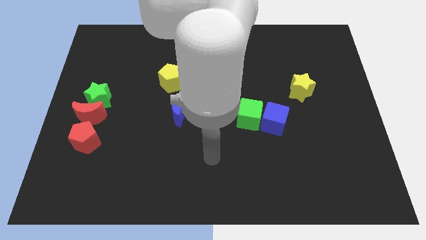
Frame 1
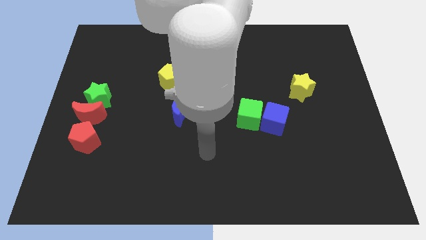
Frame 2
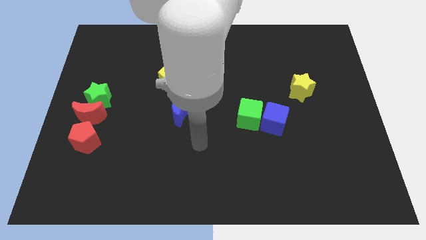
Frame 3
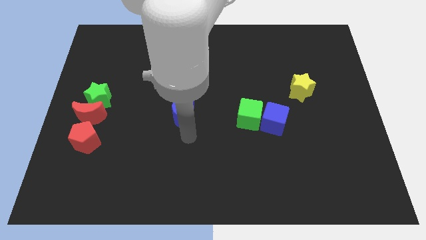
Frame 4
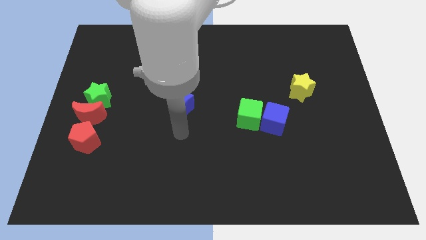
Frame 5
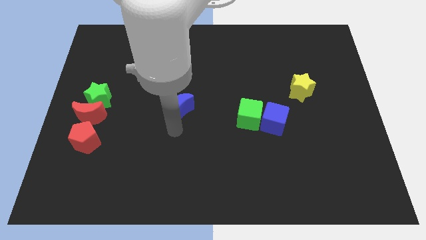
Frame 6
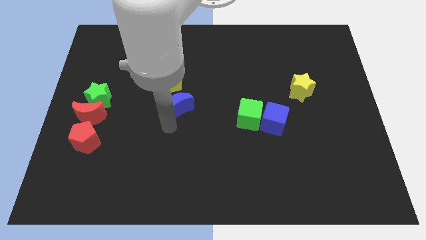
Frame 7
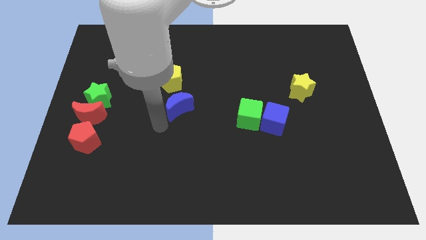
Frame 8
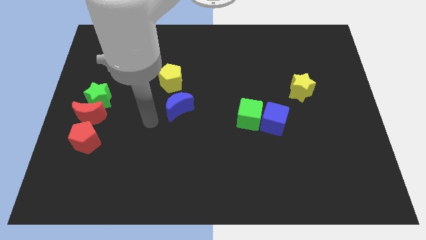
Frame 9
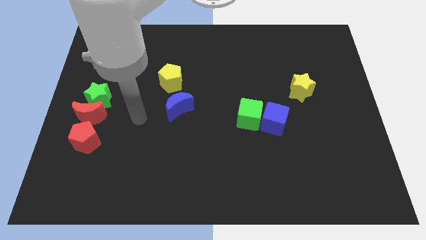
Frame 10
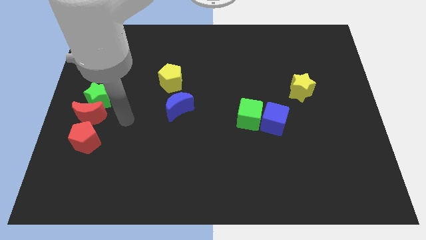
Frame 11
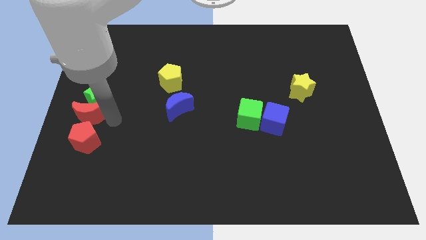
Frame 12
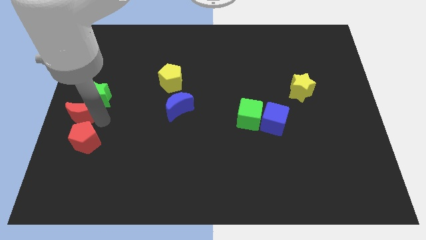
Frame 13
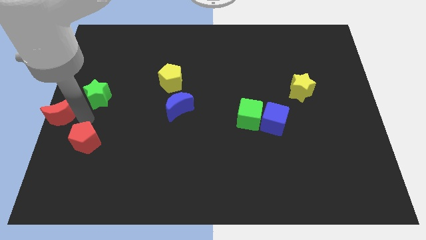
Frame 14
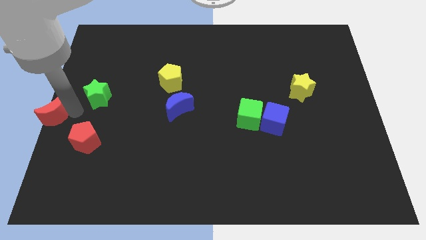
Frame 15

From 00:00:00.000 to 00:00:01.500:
move the green star away from the red moon

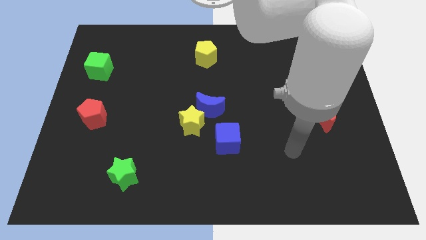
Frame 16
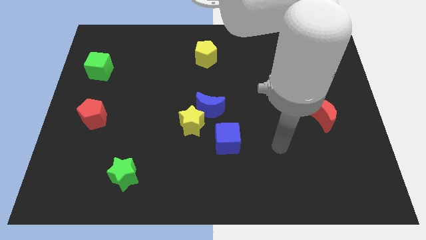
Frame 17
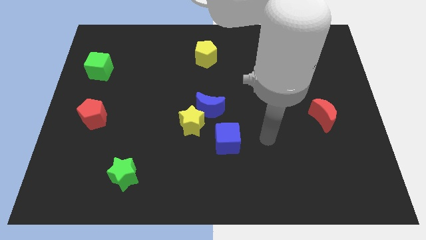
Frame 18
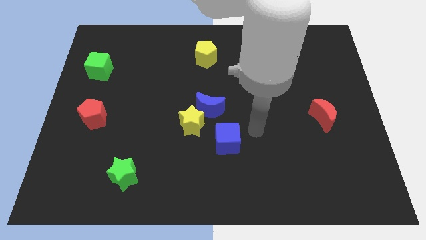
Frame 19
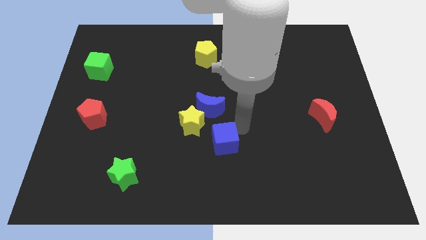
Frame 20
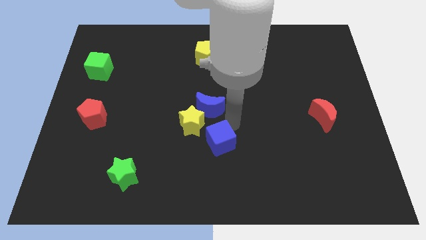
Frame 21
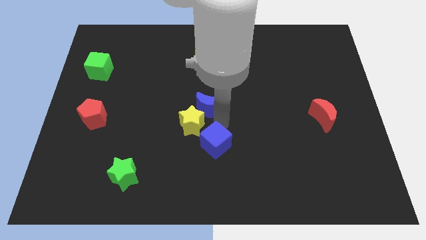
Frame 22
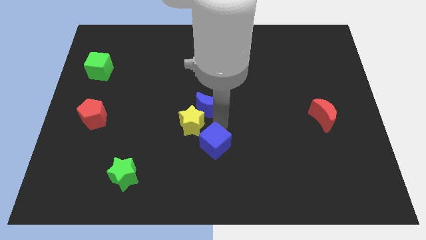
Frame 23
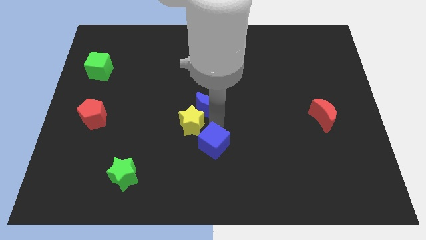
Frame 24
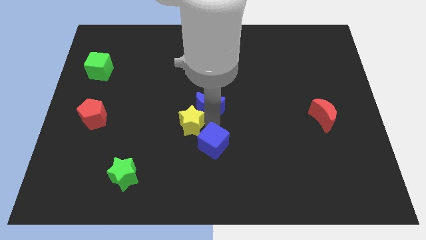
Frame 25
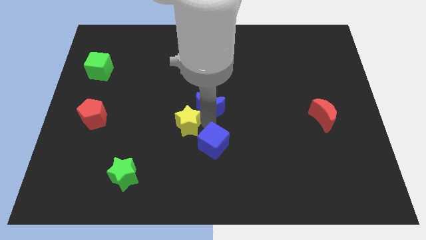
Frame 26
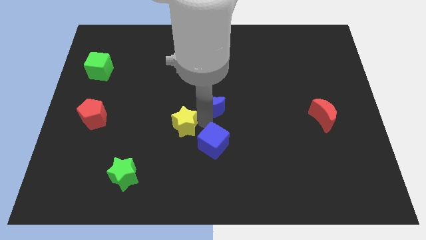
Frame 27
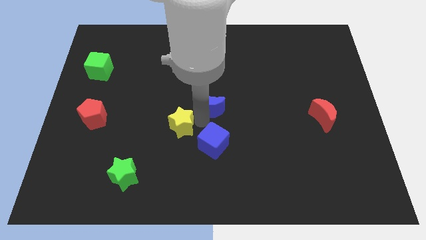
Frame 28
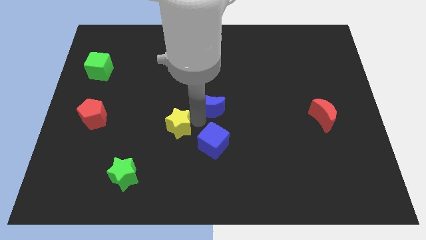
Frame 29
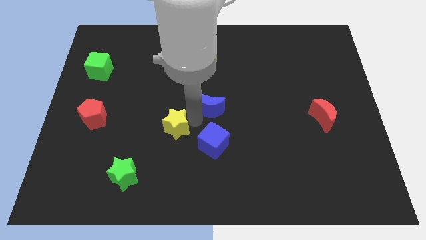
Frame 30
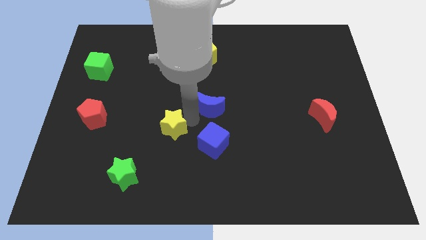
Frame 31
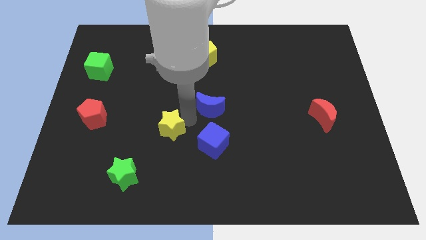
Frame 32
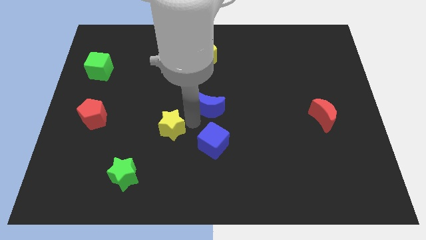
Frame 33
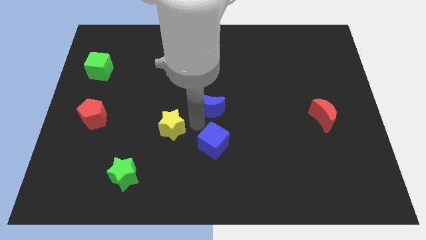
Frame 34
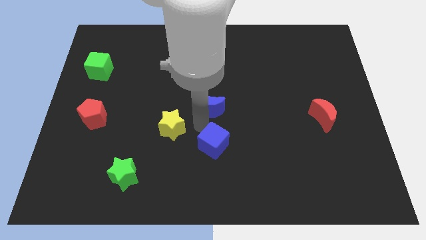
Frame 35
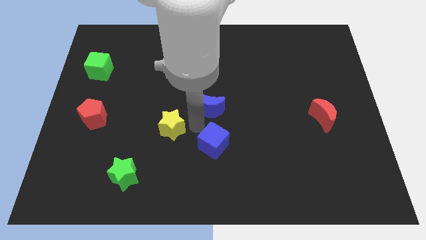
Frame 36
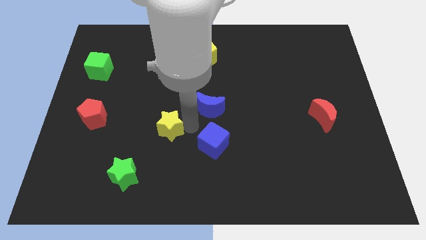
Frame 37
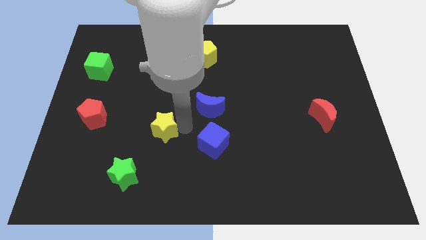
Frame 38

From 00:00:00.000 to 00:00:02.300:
separate the yellow star from the blue moon and blue cube

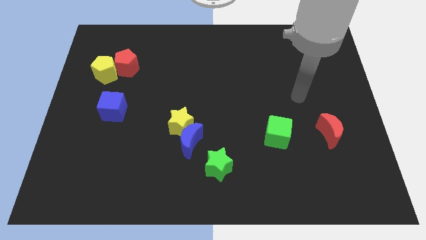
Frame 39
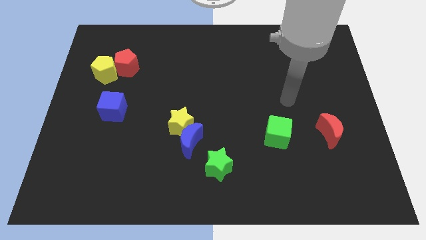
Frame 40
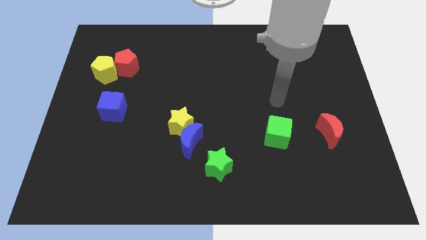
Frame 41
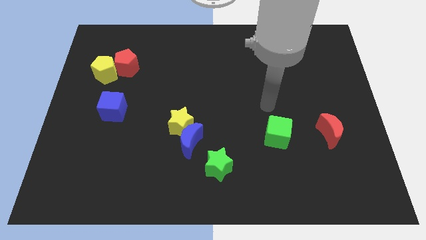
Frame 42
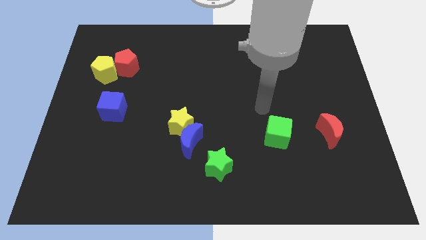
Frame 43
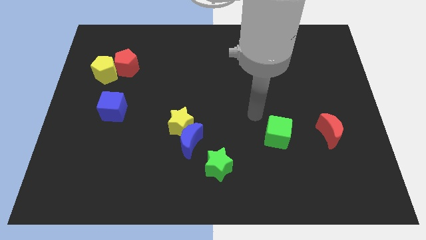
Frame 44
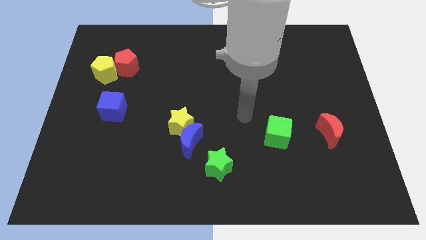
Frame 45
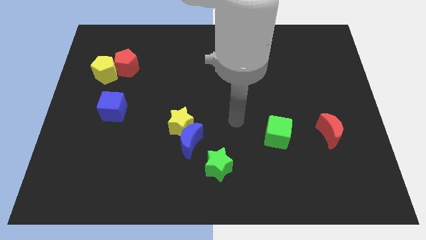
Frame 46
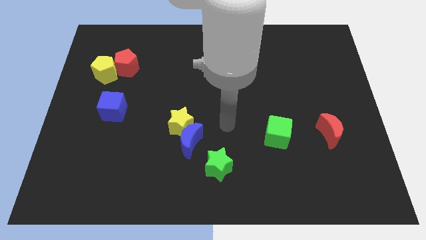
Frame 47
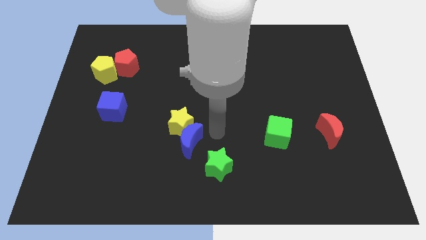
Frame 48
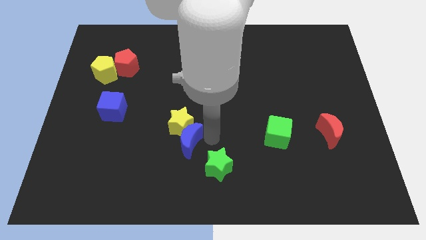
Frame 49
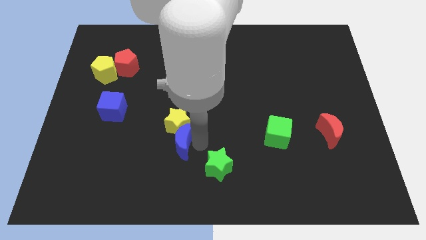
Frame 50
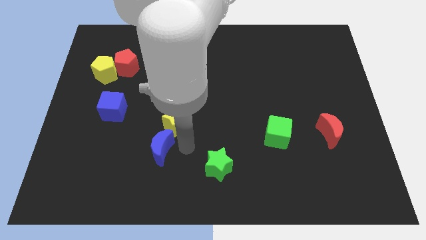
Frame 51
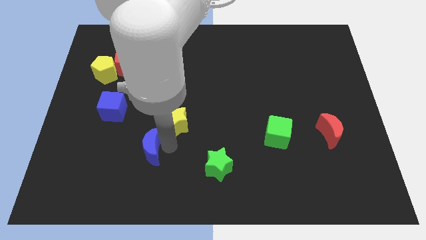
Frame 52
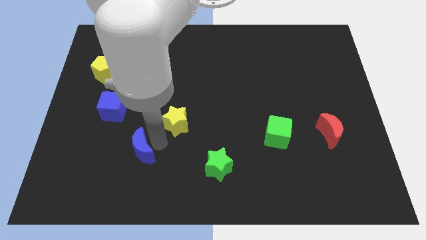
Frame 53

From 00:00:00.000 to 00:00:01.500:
separate the yellow star from the blue moon

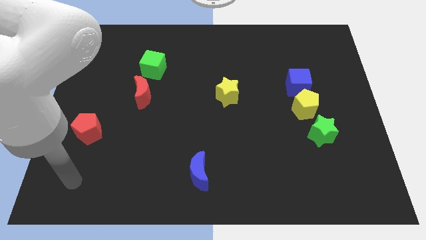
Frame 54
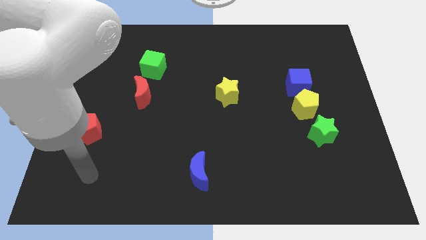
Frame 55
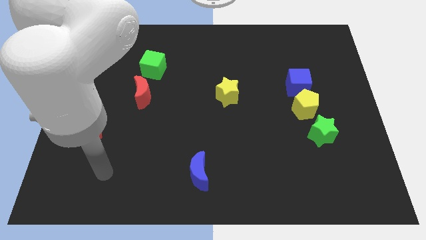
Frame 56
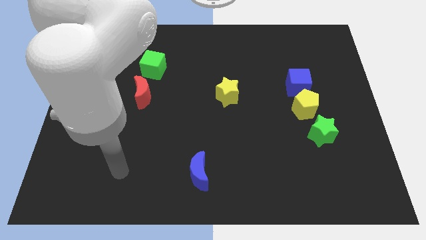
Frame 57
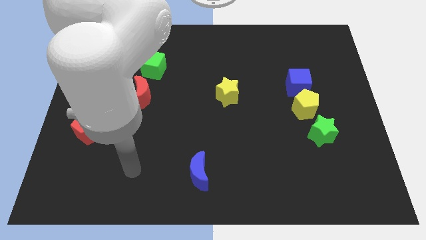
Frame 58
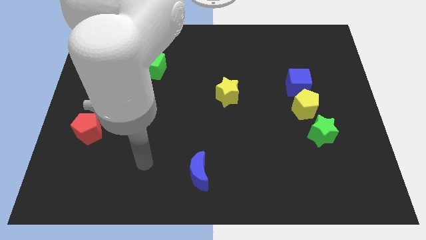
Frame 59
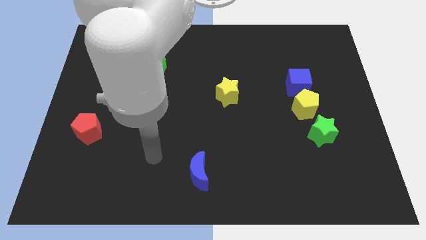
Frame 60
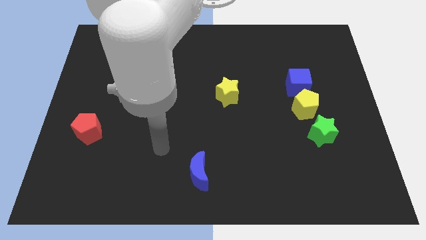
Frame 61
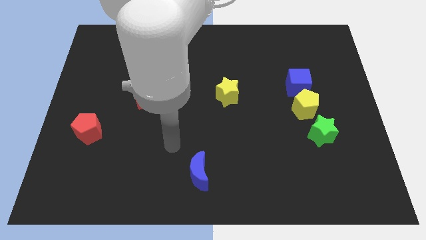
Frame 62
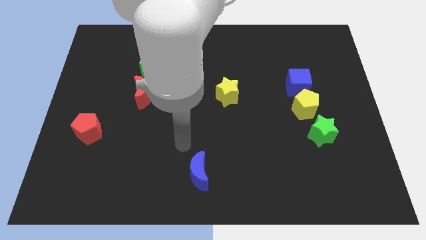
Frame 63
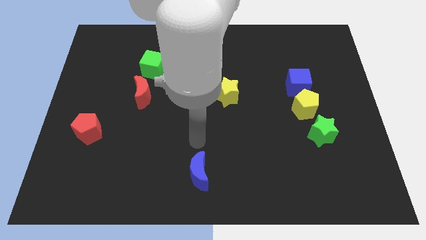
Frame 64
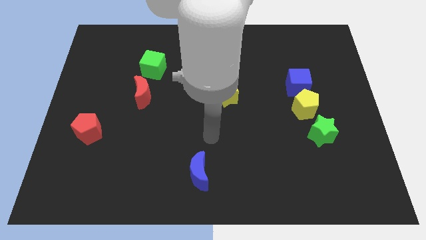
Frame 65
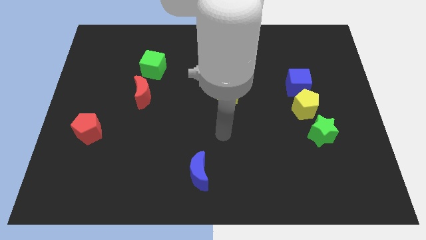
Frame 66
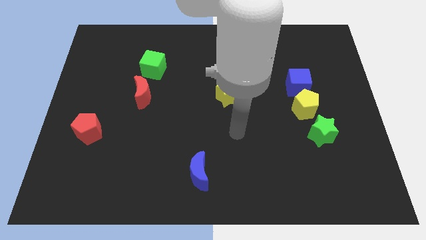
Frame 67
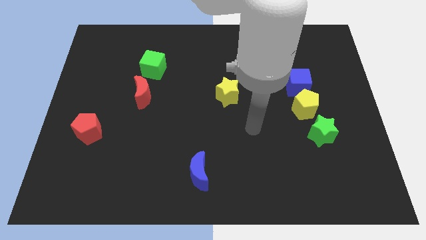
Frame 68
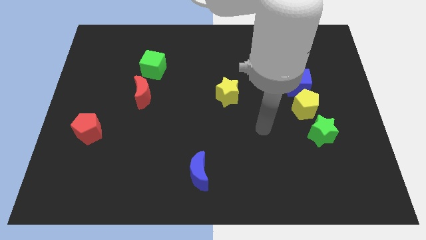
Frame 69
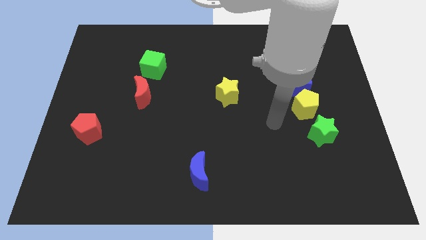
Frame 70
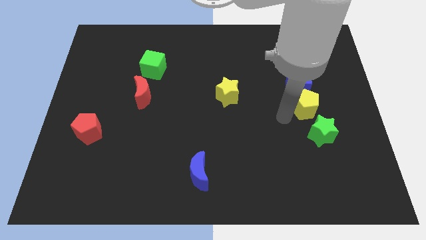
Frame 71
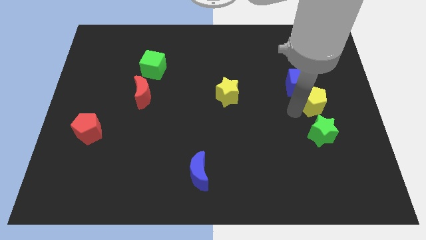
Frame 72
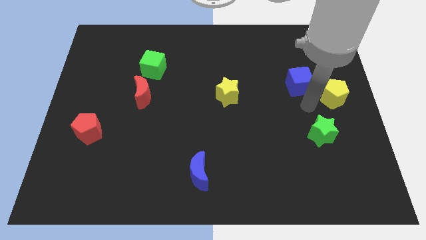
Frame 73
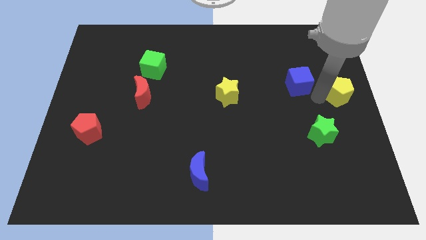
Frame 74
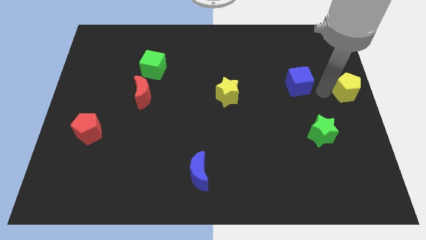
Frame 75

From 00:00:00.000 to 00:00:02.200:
pull the blue cube apart from the yellow pentagon

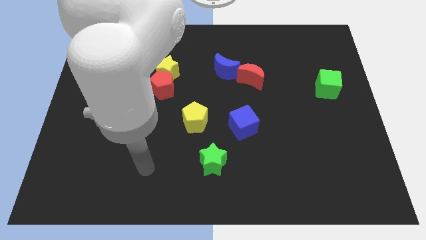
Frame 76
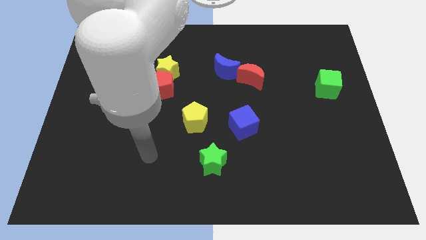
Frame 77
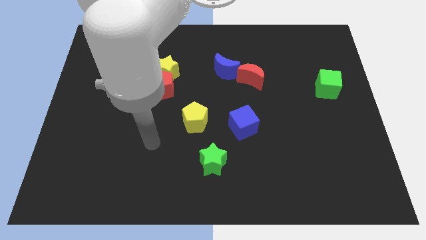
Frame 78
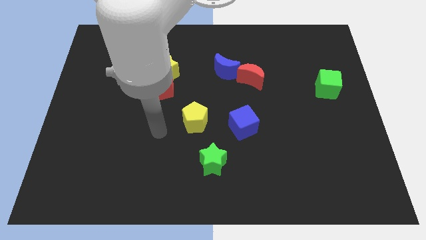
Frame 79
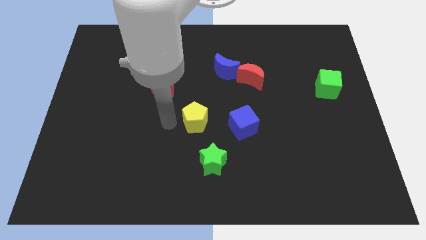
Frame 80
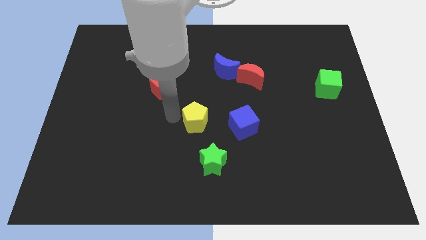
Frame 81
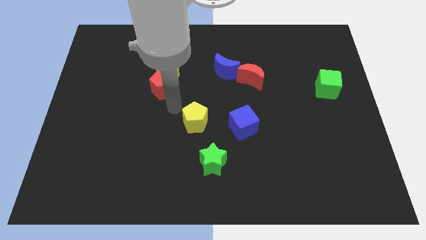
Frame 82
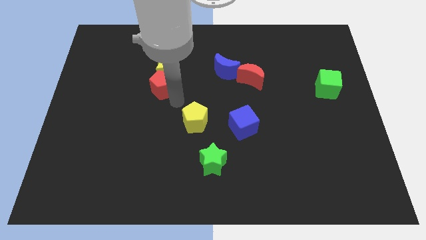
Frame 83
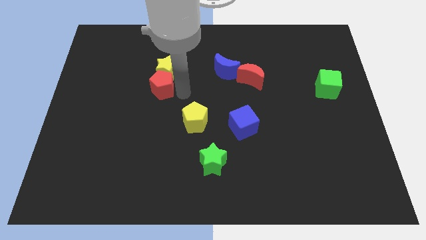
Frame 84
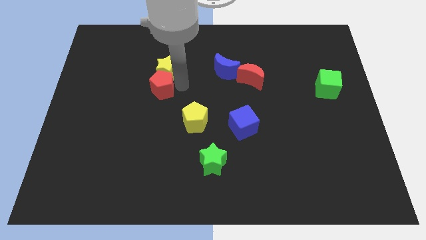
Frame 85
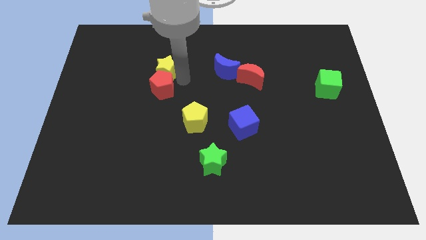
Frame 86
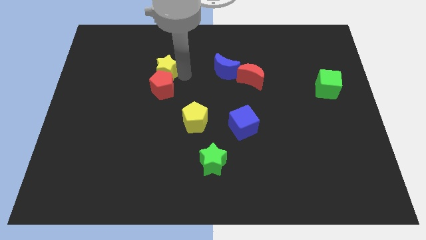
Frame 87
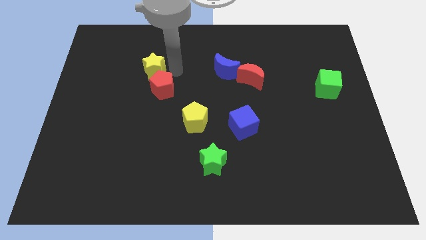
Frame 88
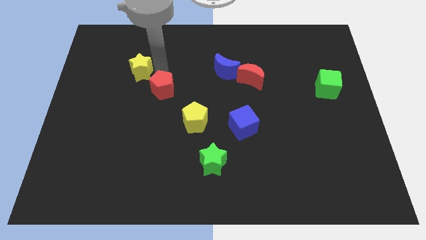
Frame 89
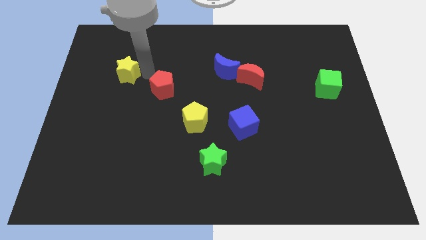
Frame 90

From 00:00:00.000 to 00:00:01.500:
pull the red pentagon apart from the yellow star

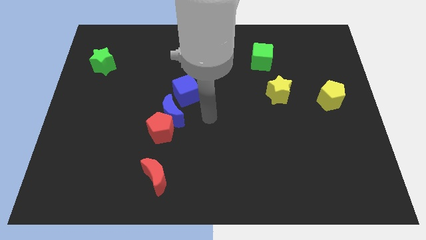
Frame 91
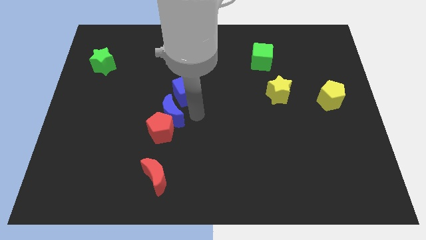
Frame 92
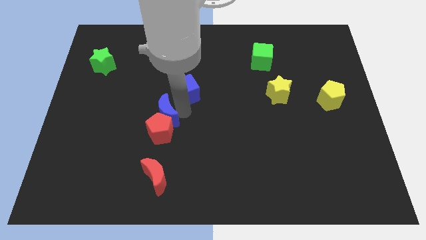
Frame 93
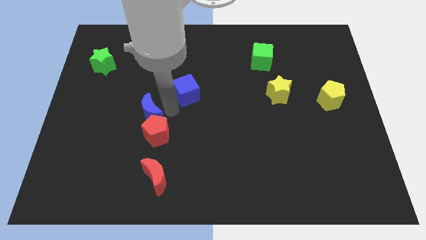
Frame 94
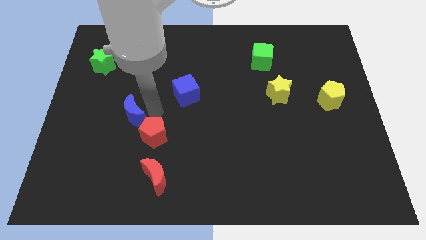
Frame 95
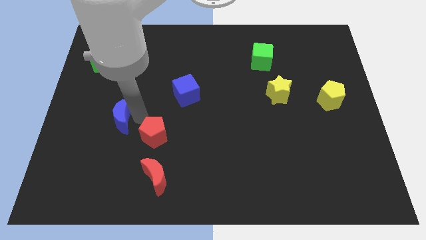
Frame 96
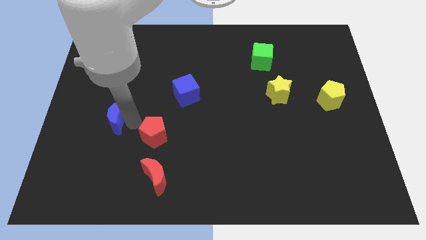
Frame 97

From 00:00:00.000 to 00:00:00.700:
move the red pentagon away from the blue moon
